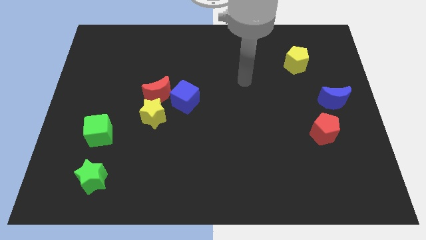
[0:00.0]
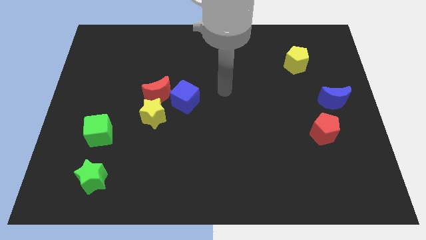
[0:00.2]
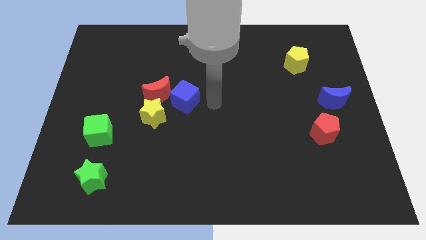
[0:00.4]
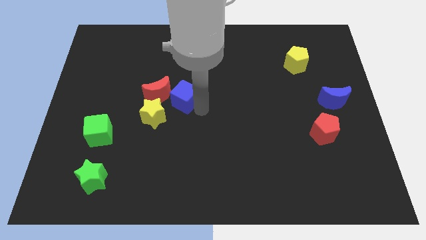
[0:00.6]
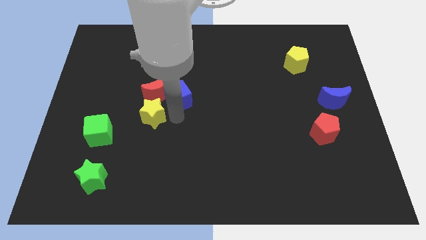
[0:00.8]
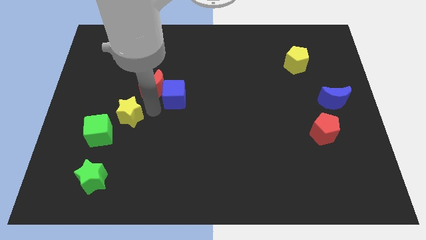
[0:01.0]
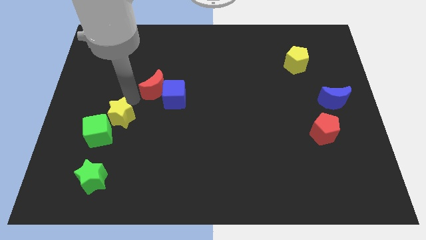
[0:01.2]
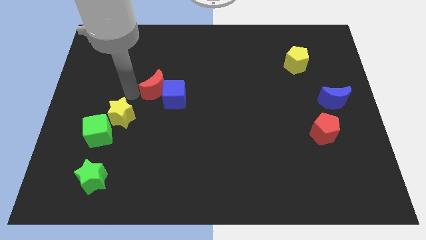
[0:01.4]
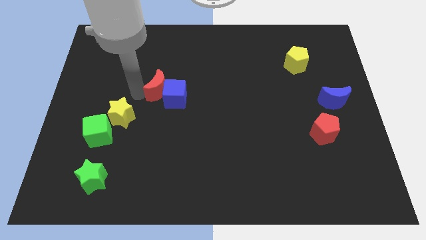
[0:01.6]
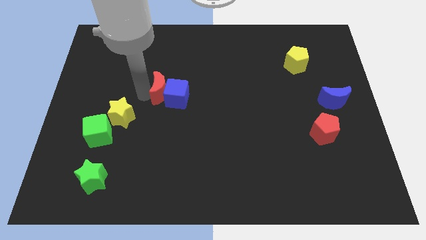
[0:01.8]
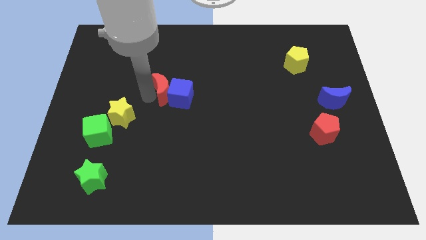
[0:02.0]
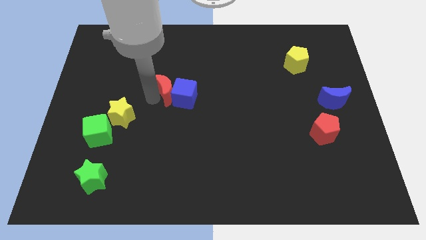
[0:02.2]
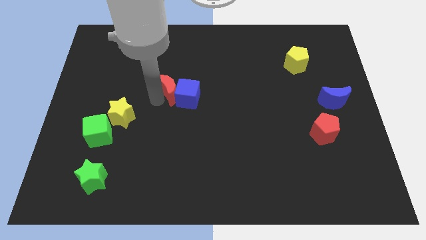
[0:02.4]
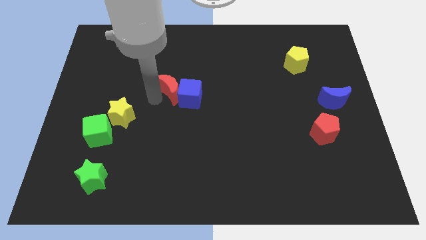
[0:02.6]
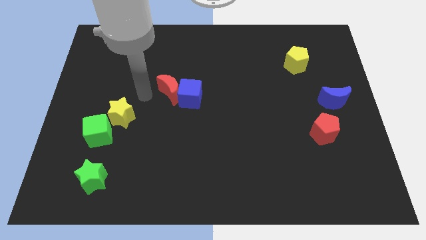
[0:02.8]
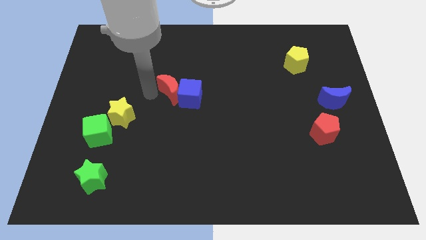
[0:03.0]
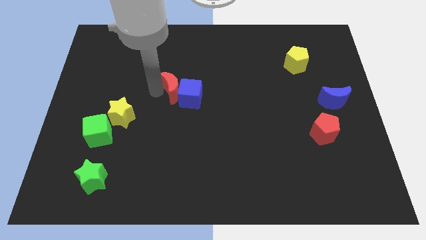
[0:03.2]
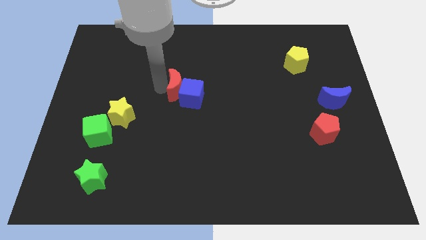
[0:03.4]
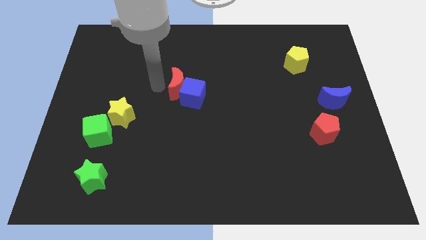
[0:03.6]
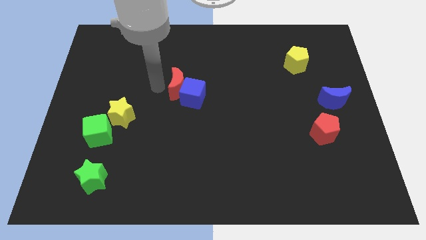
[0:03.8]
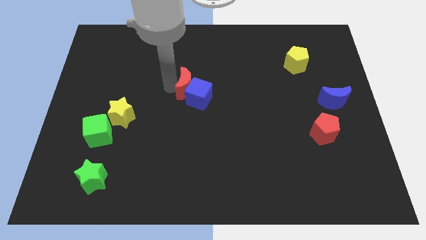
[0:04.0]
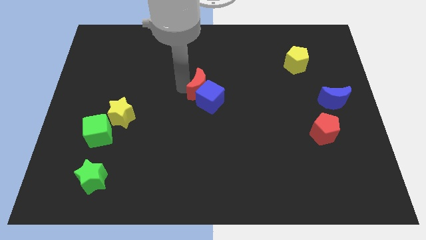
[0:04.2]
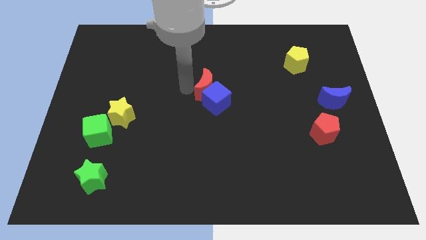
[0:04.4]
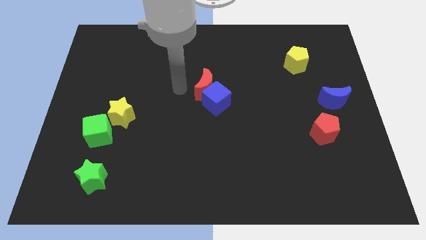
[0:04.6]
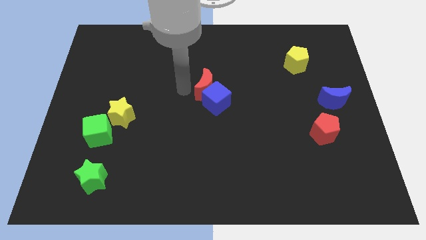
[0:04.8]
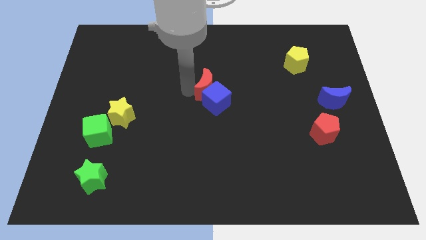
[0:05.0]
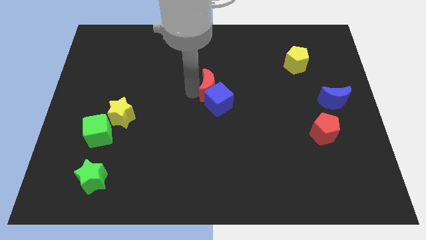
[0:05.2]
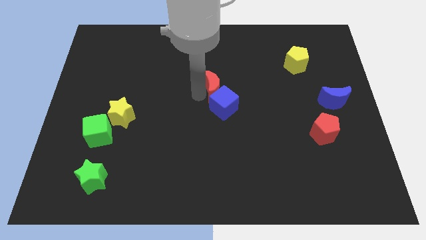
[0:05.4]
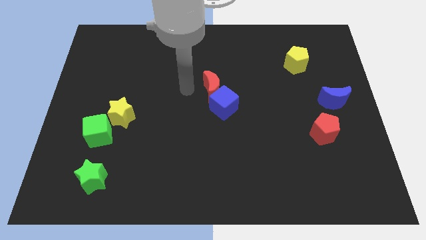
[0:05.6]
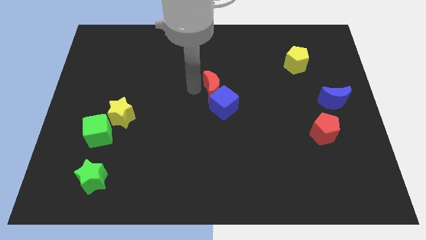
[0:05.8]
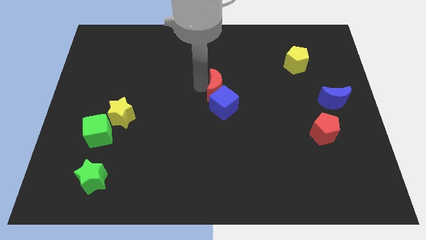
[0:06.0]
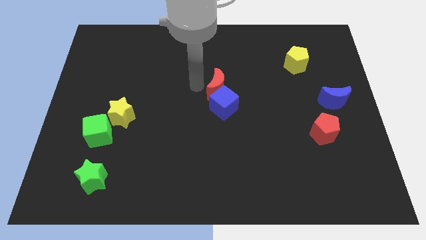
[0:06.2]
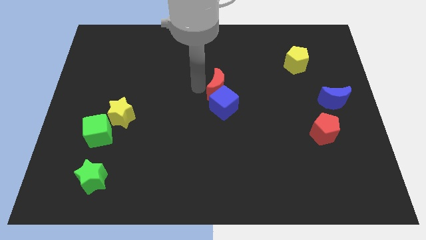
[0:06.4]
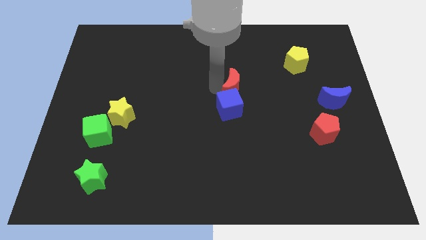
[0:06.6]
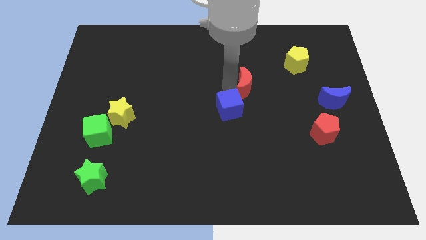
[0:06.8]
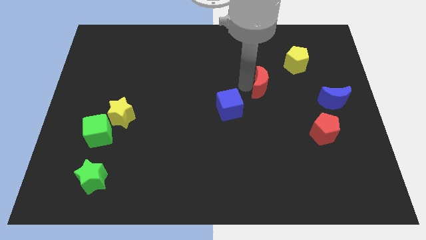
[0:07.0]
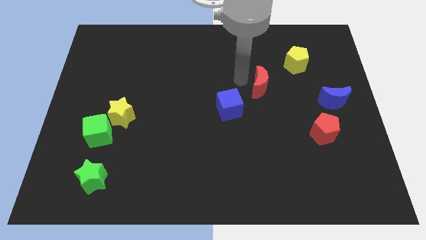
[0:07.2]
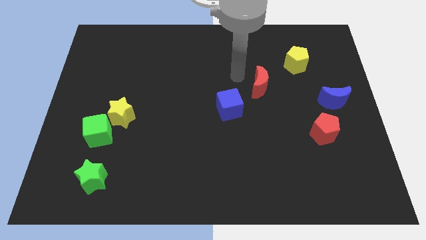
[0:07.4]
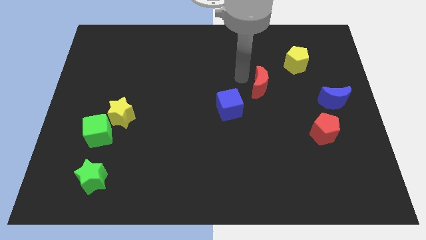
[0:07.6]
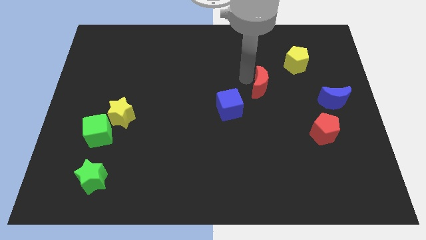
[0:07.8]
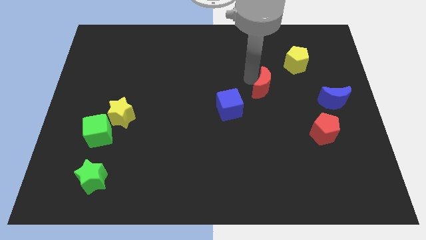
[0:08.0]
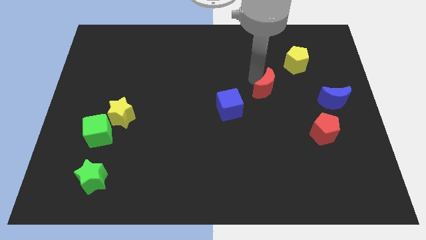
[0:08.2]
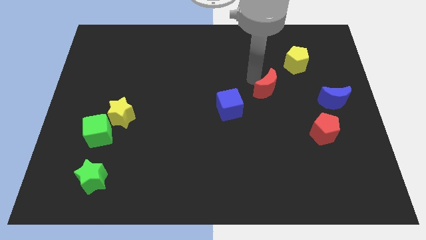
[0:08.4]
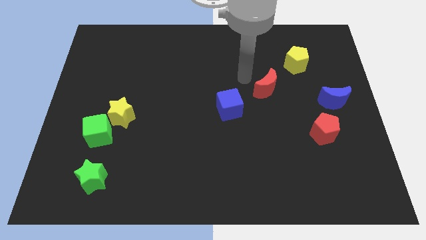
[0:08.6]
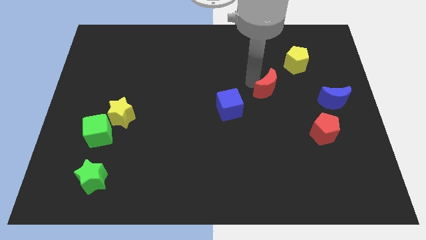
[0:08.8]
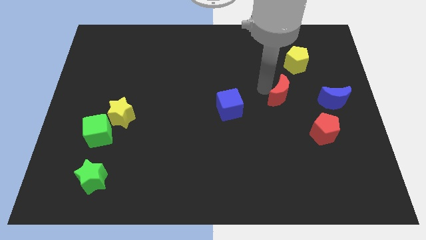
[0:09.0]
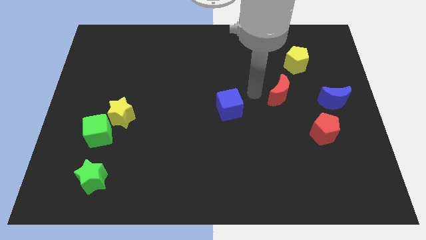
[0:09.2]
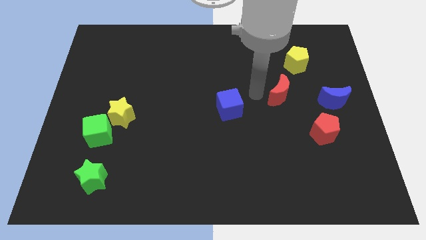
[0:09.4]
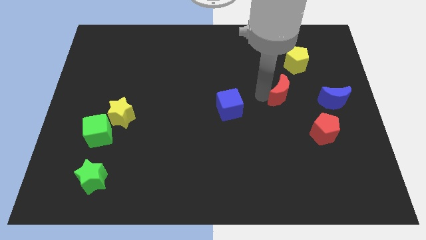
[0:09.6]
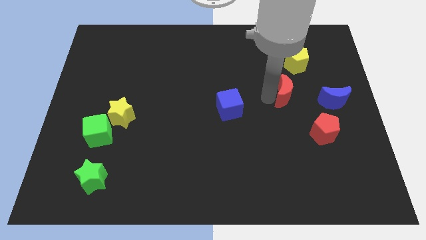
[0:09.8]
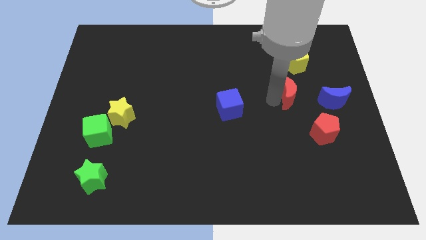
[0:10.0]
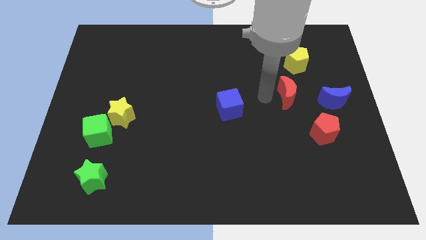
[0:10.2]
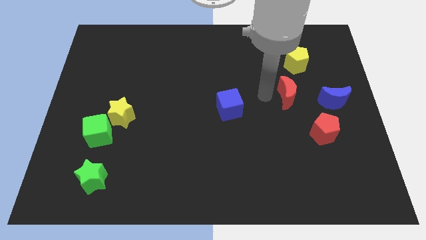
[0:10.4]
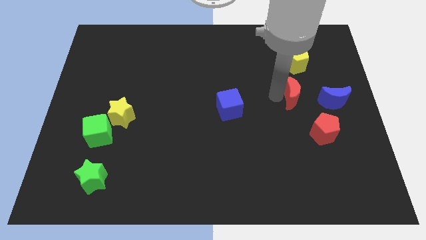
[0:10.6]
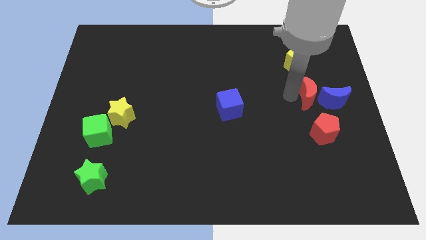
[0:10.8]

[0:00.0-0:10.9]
push the red moon next to the blue moon

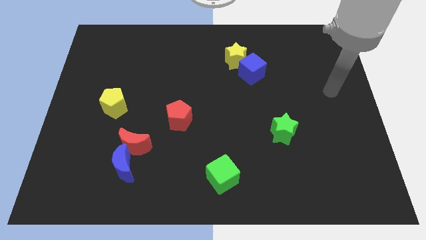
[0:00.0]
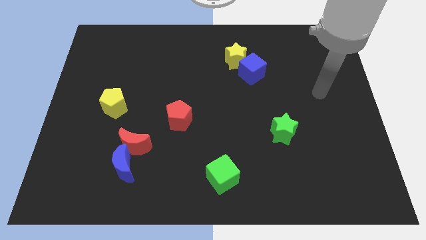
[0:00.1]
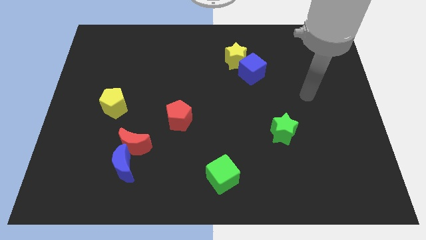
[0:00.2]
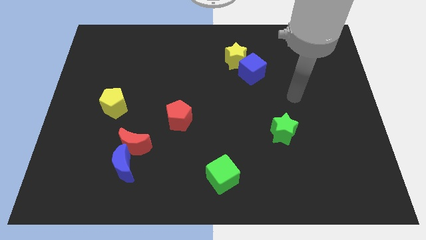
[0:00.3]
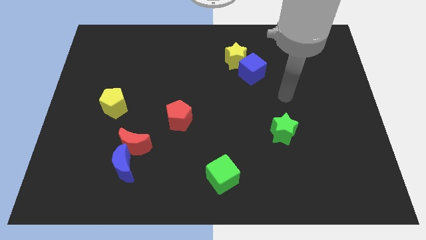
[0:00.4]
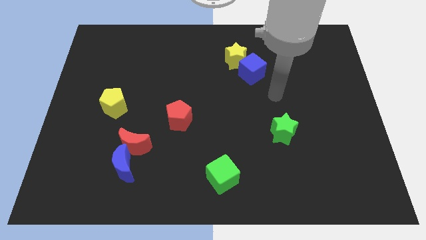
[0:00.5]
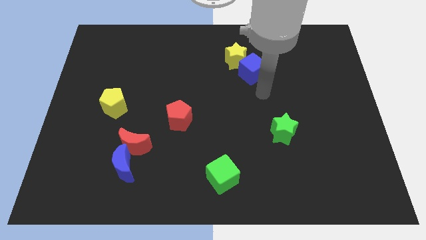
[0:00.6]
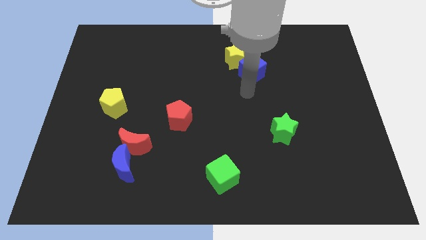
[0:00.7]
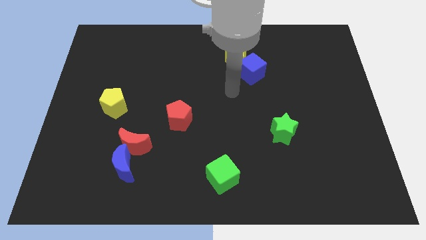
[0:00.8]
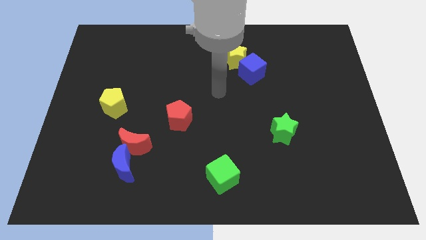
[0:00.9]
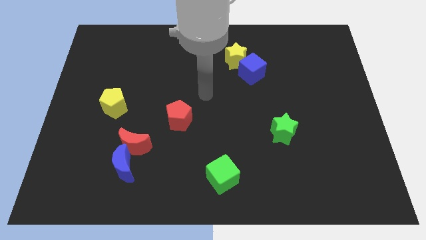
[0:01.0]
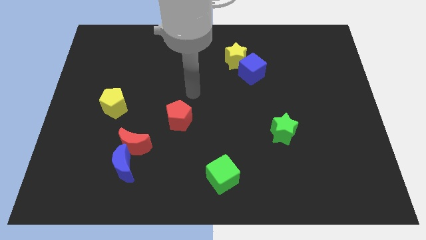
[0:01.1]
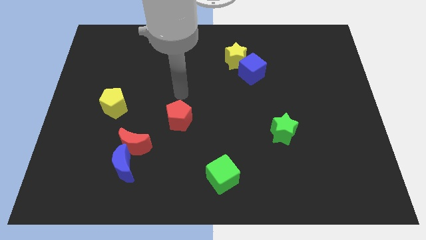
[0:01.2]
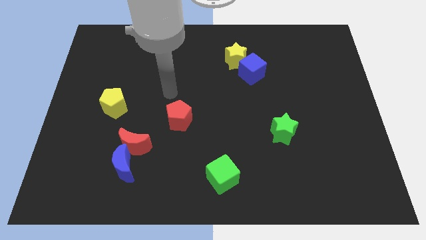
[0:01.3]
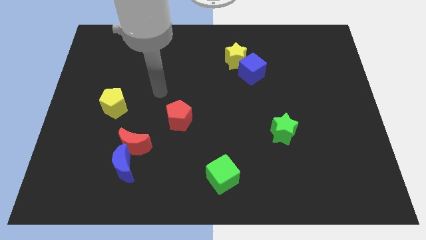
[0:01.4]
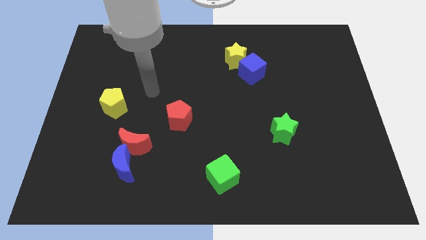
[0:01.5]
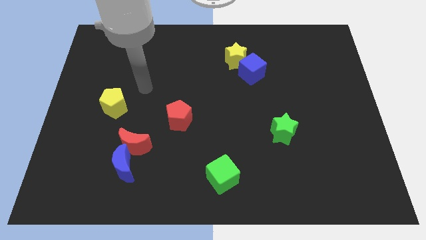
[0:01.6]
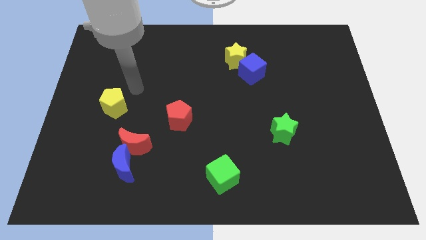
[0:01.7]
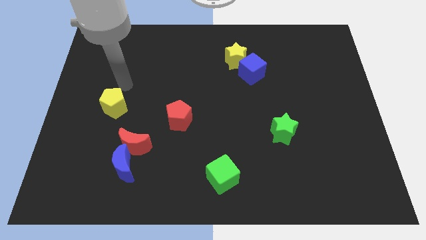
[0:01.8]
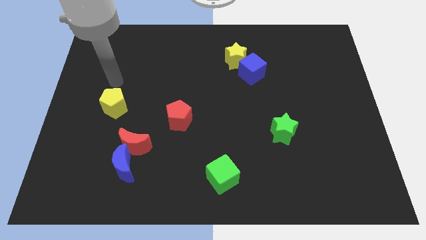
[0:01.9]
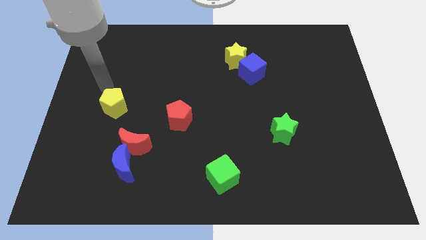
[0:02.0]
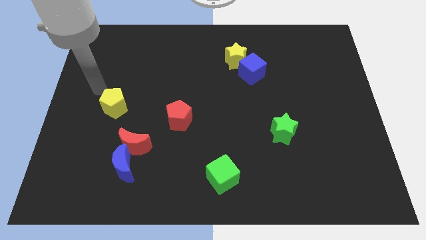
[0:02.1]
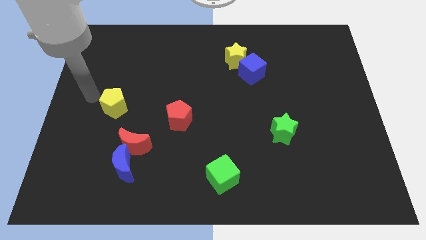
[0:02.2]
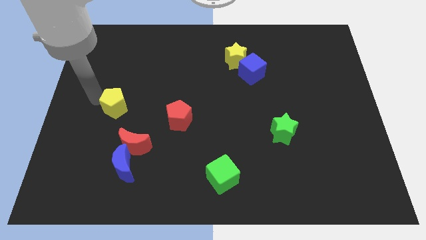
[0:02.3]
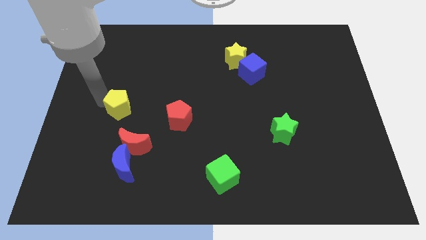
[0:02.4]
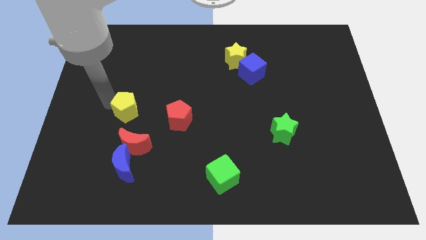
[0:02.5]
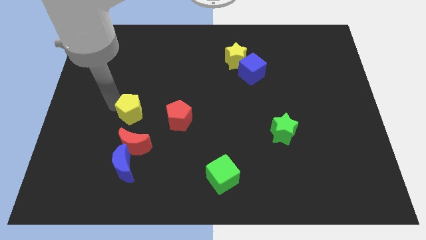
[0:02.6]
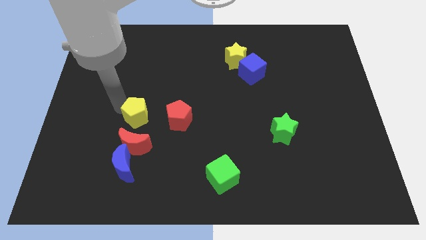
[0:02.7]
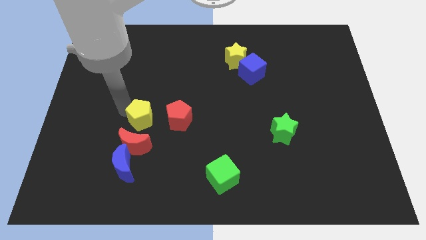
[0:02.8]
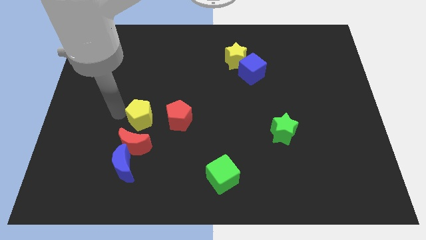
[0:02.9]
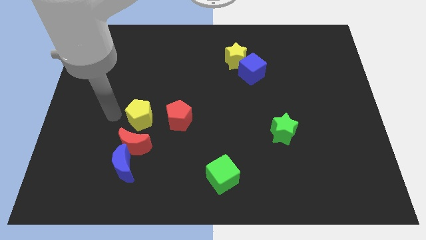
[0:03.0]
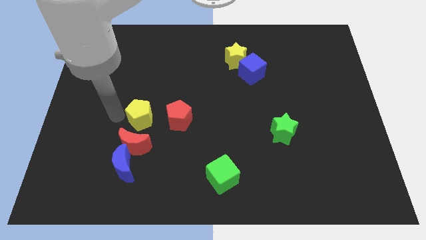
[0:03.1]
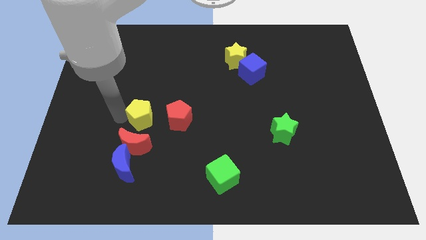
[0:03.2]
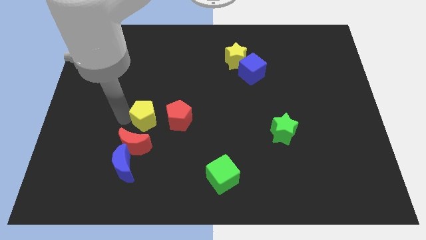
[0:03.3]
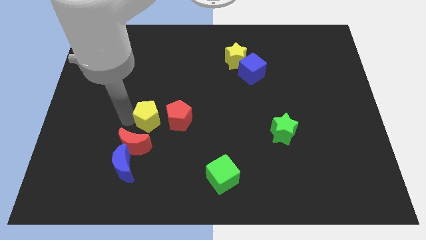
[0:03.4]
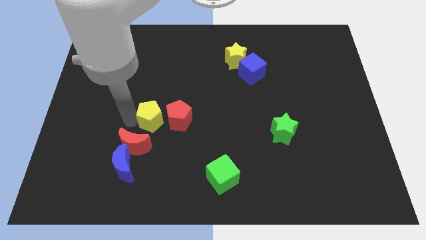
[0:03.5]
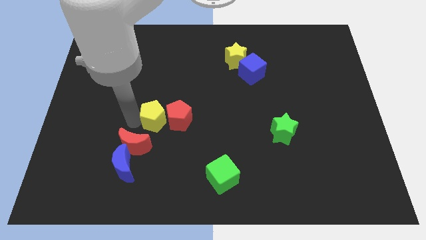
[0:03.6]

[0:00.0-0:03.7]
put the yellow pentagon to the red pentagon
